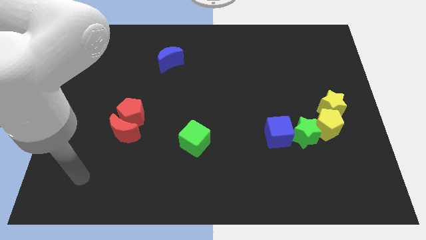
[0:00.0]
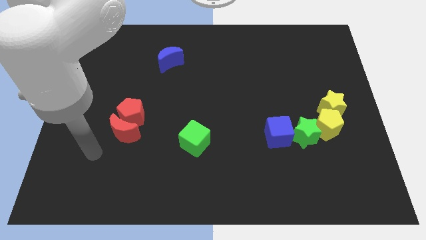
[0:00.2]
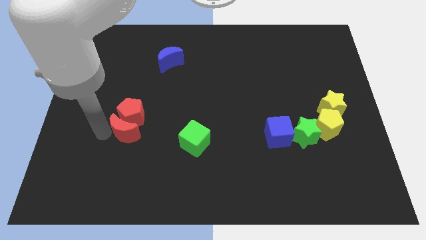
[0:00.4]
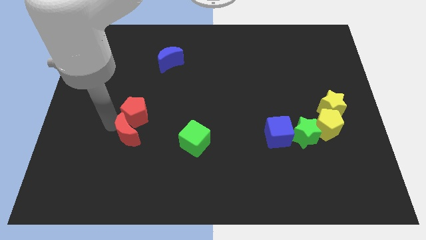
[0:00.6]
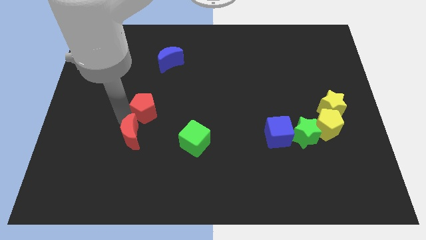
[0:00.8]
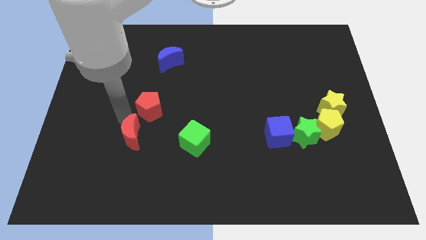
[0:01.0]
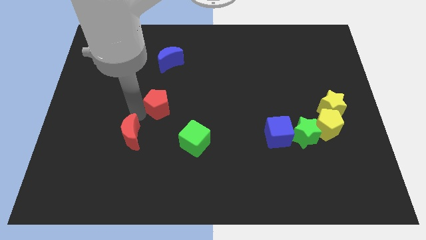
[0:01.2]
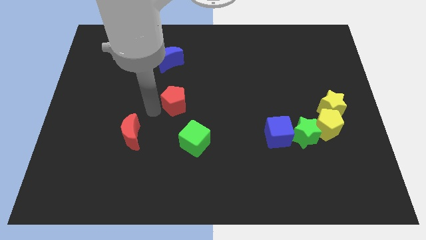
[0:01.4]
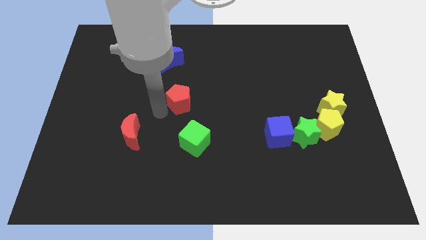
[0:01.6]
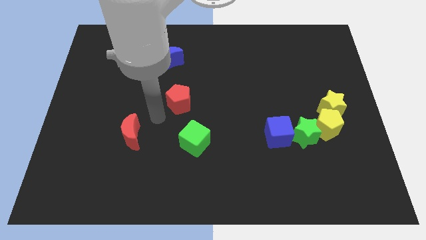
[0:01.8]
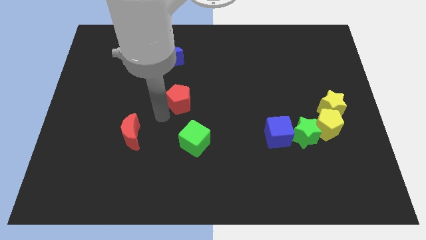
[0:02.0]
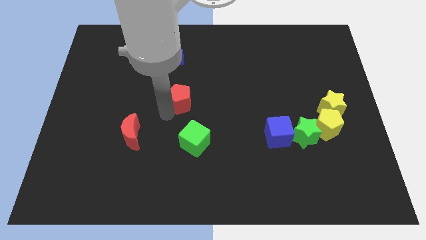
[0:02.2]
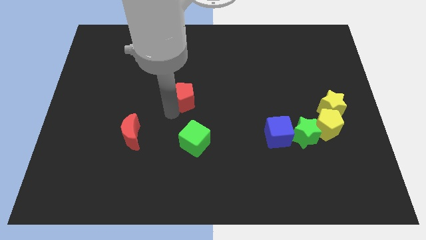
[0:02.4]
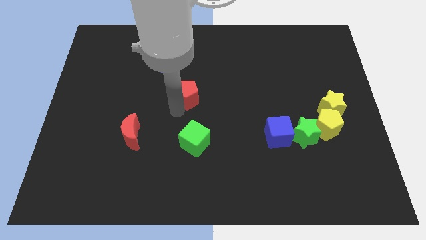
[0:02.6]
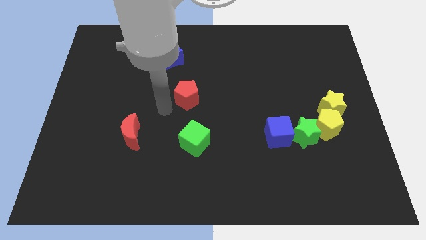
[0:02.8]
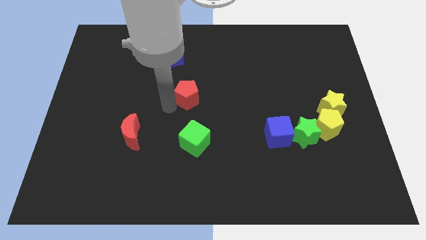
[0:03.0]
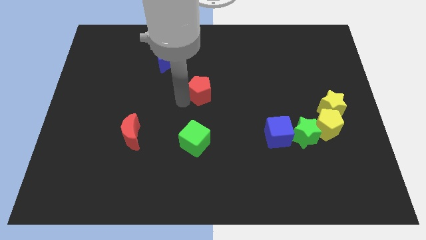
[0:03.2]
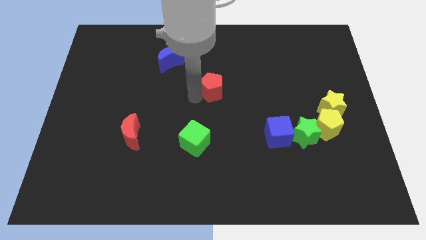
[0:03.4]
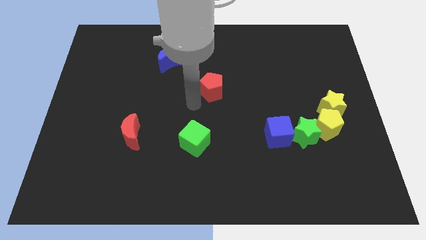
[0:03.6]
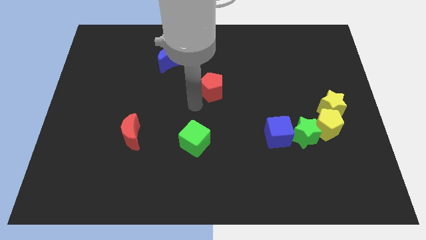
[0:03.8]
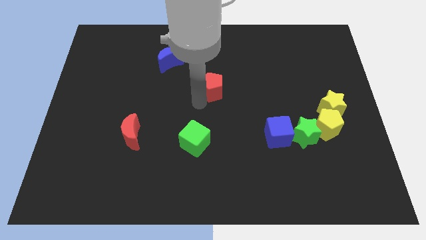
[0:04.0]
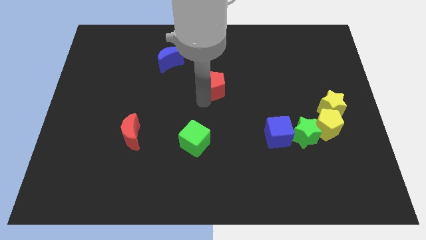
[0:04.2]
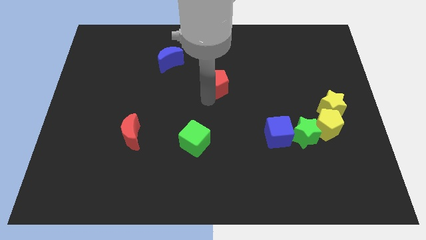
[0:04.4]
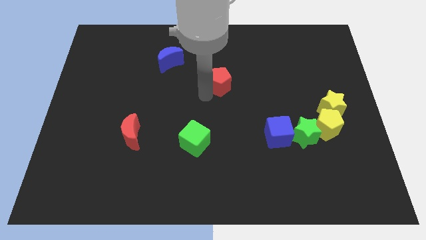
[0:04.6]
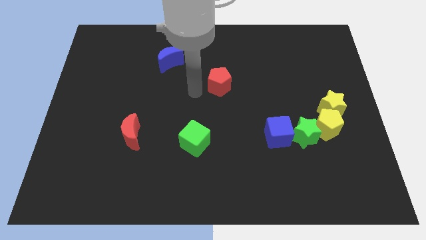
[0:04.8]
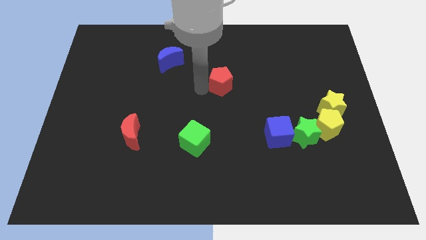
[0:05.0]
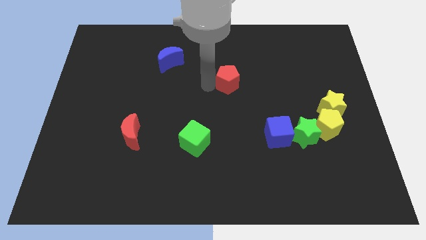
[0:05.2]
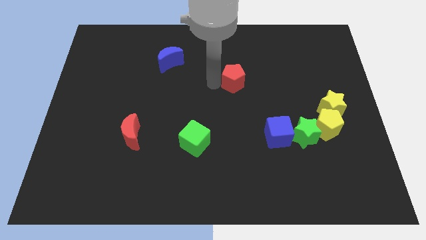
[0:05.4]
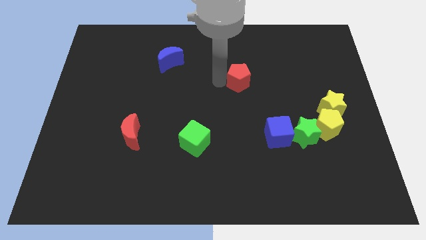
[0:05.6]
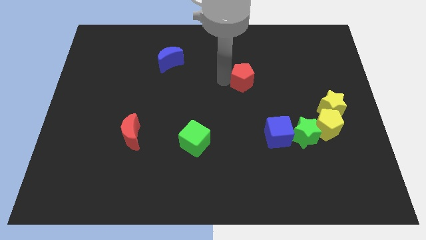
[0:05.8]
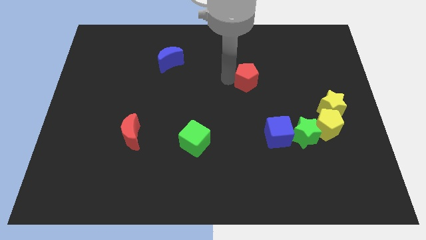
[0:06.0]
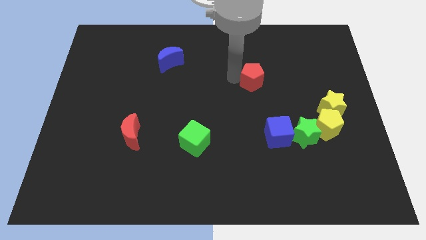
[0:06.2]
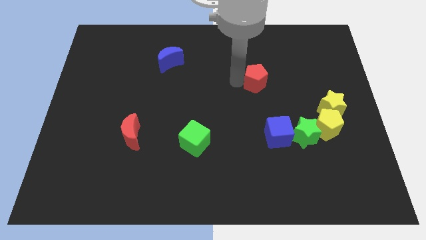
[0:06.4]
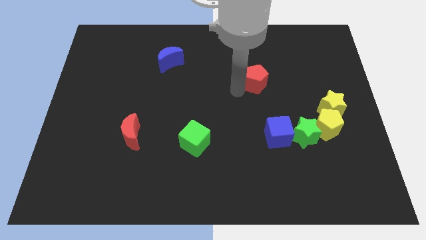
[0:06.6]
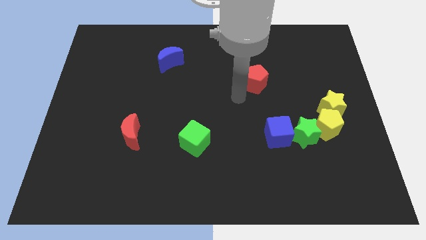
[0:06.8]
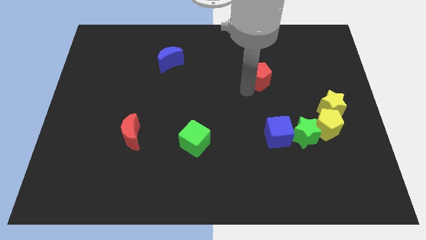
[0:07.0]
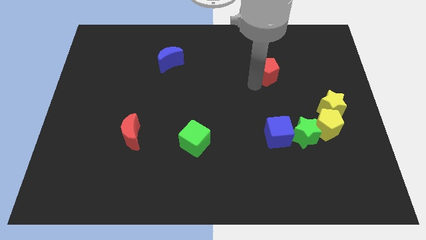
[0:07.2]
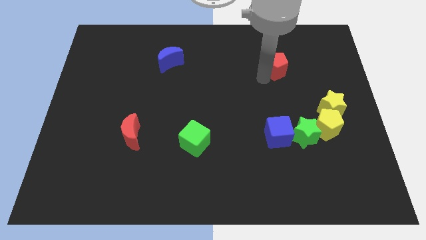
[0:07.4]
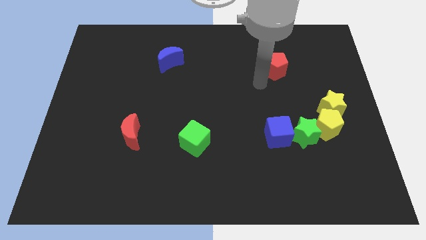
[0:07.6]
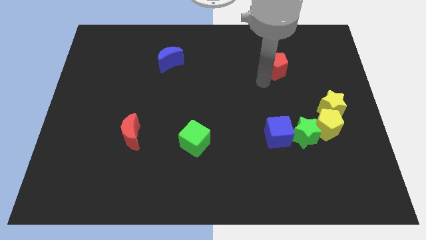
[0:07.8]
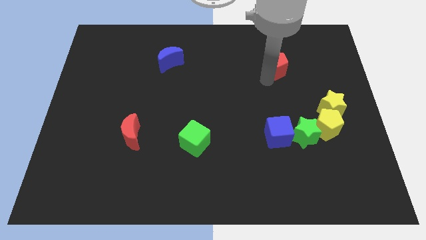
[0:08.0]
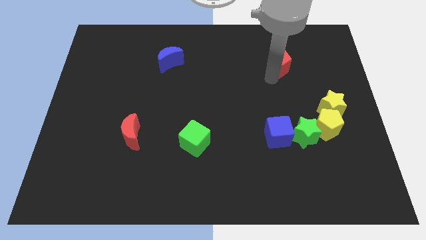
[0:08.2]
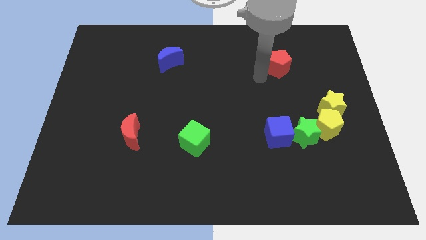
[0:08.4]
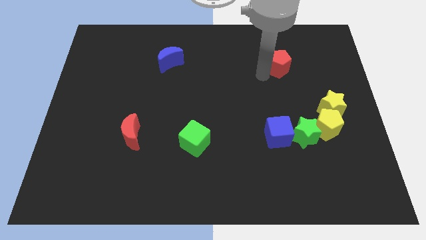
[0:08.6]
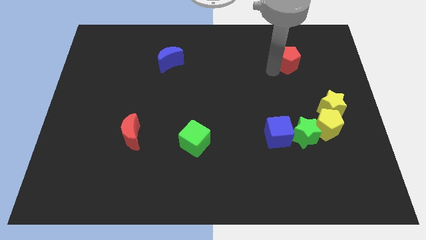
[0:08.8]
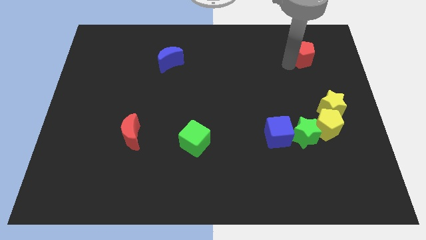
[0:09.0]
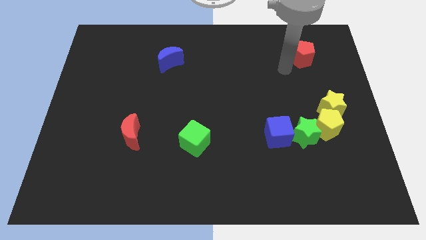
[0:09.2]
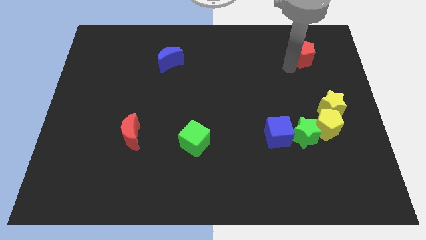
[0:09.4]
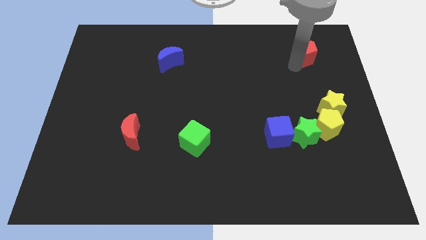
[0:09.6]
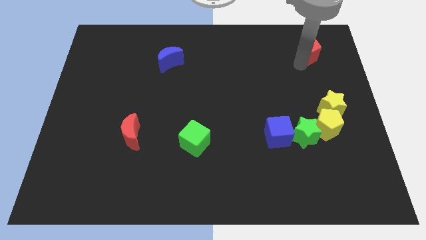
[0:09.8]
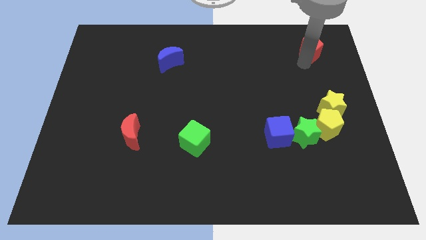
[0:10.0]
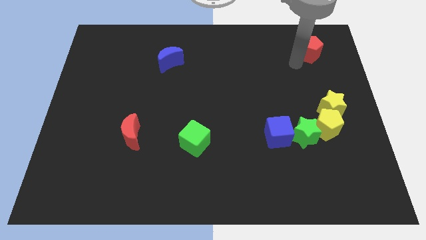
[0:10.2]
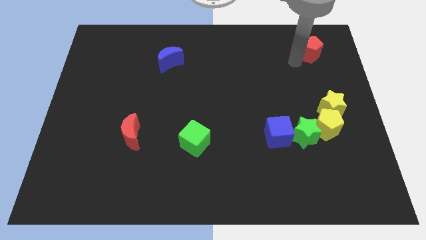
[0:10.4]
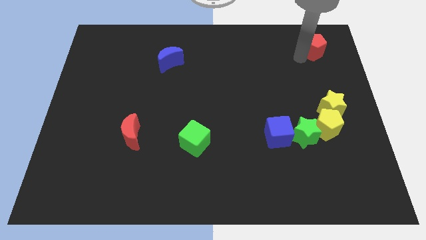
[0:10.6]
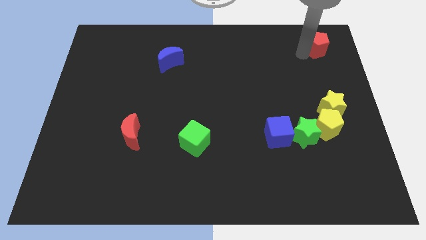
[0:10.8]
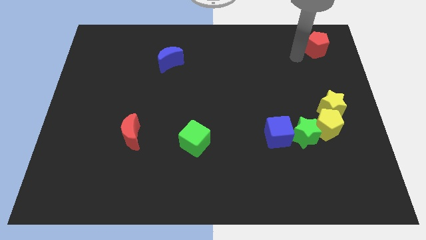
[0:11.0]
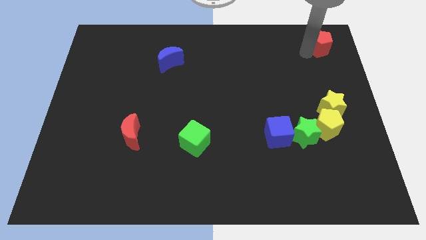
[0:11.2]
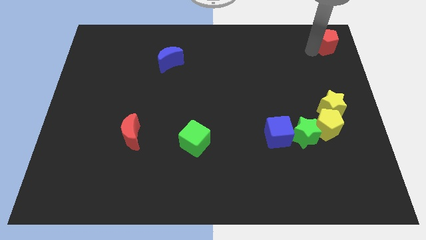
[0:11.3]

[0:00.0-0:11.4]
push the red pentagon to the upper right corner

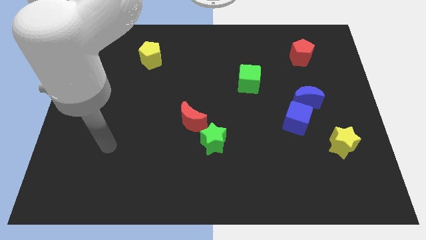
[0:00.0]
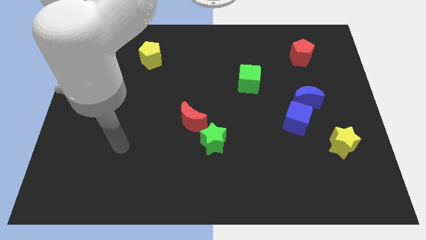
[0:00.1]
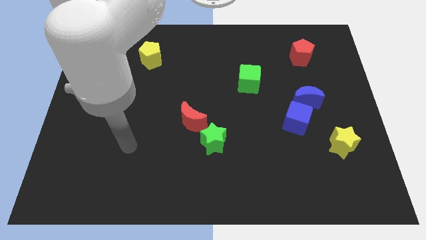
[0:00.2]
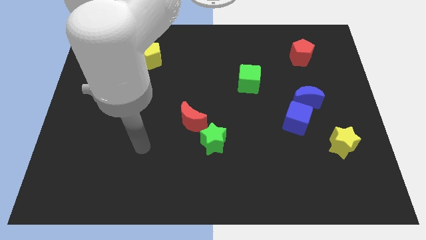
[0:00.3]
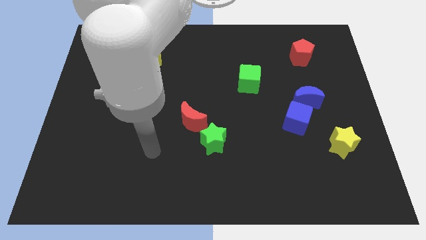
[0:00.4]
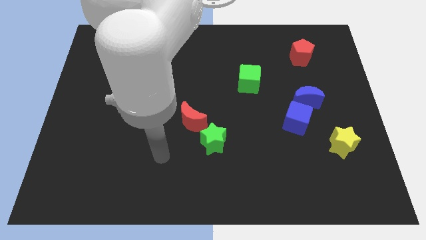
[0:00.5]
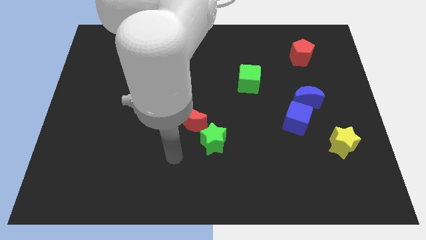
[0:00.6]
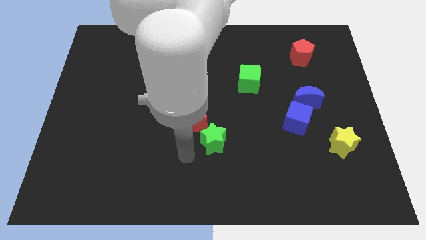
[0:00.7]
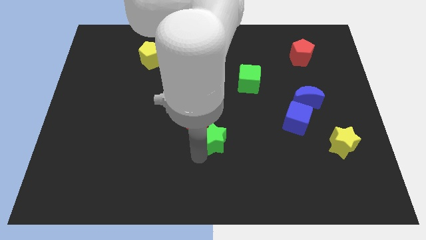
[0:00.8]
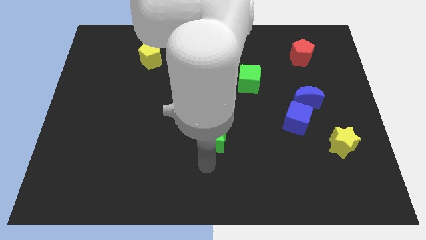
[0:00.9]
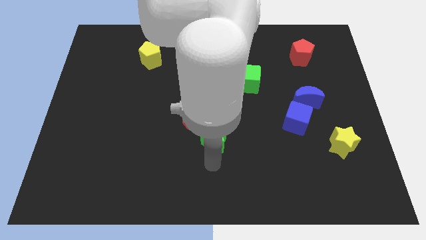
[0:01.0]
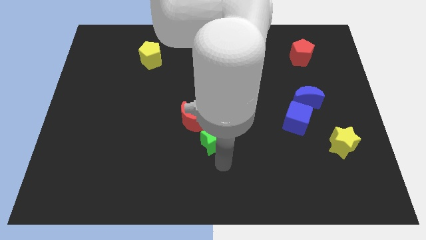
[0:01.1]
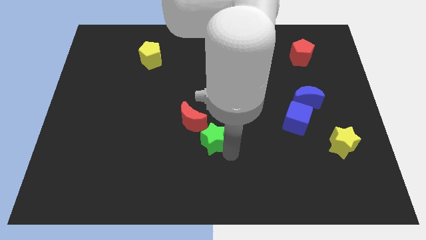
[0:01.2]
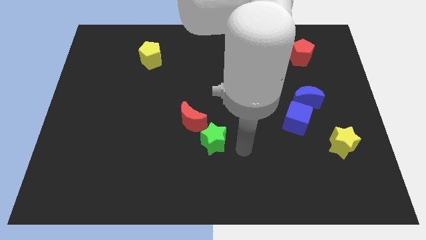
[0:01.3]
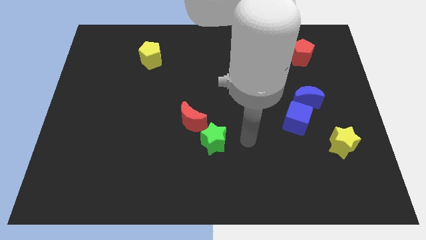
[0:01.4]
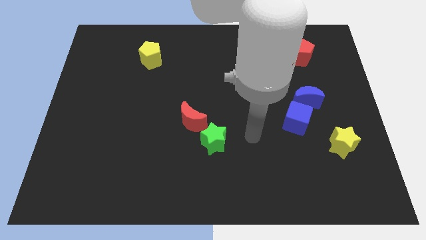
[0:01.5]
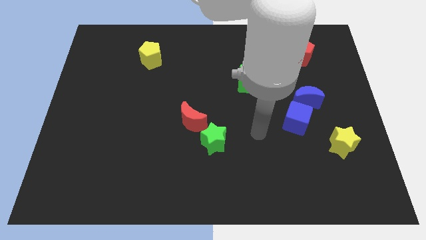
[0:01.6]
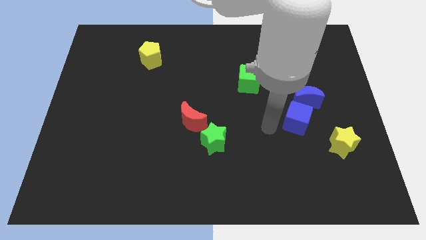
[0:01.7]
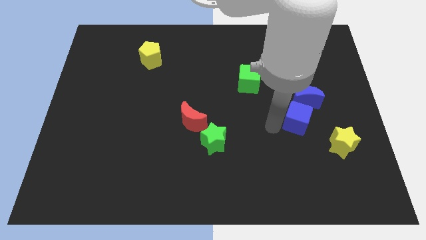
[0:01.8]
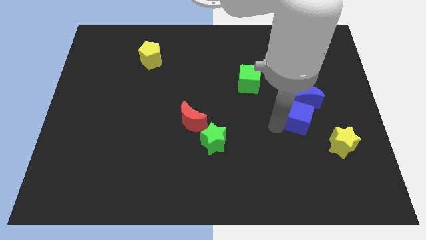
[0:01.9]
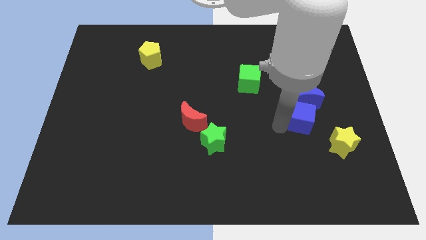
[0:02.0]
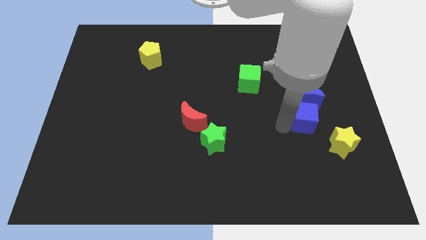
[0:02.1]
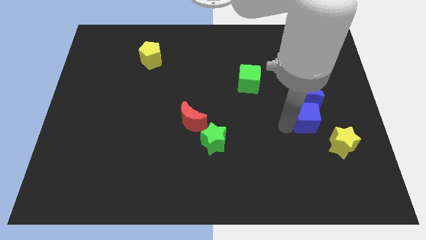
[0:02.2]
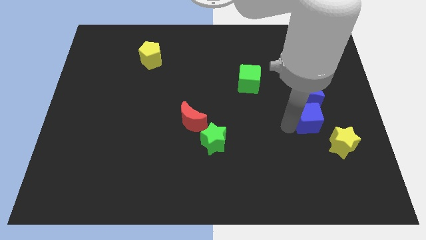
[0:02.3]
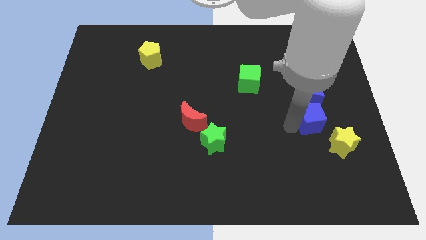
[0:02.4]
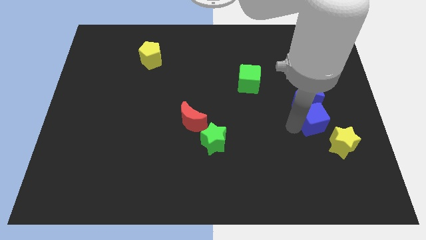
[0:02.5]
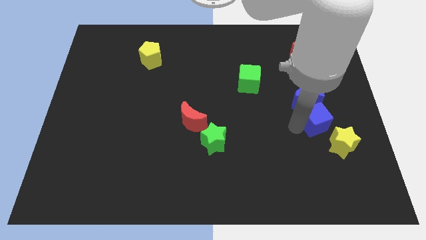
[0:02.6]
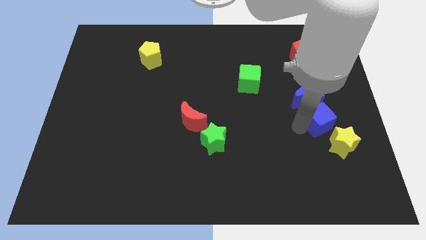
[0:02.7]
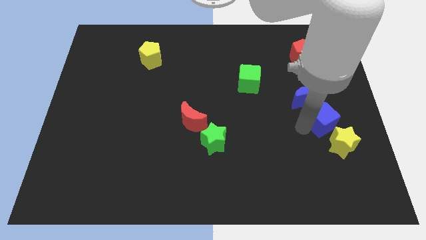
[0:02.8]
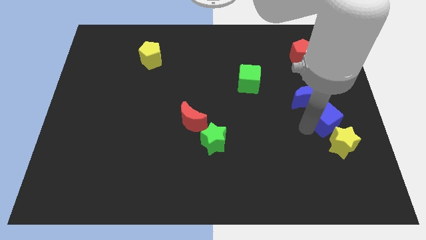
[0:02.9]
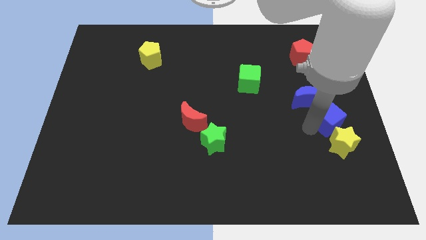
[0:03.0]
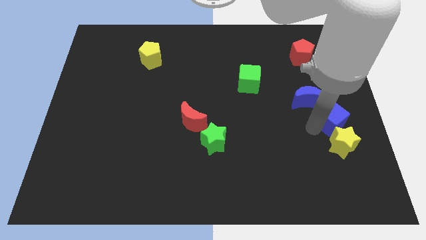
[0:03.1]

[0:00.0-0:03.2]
push the blue cube to the center right
